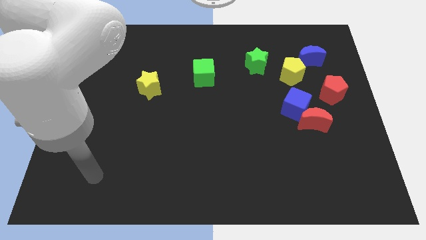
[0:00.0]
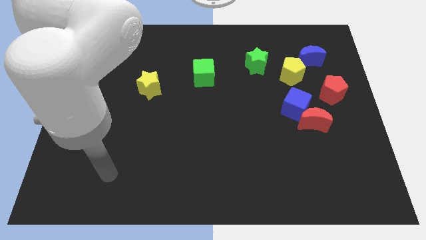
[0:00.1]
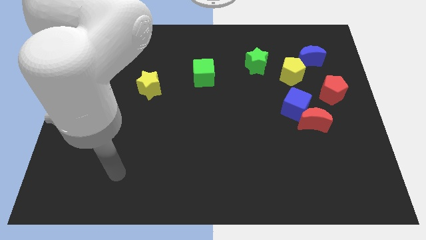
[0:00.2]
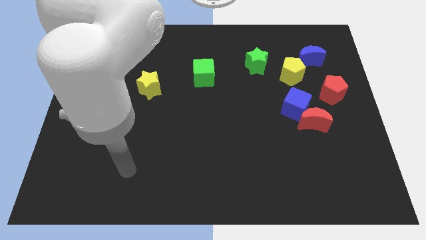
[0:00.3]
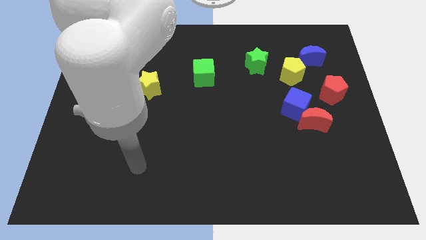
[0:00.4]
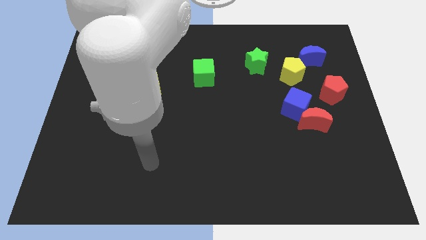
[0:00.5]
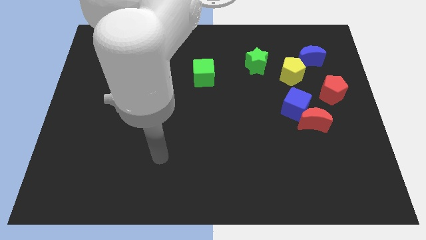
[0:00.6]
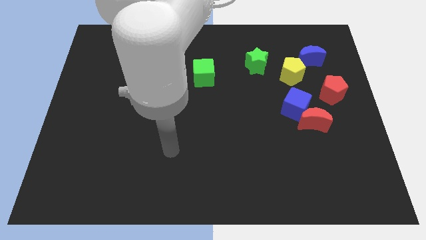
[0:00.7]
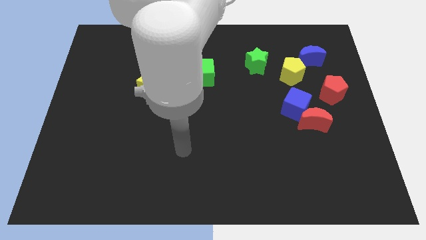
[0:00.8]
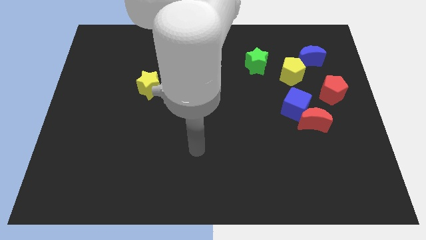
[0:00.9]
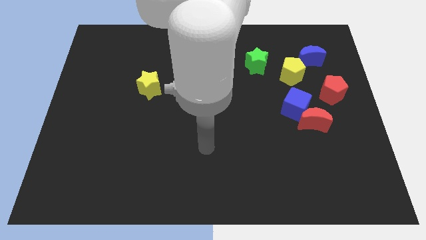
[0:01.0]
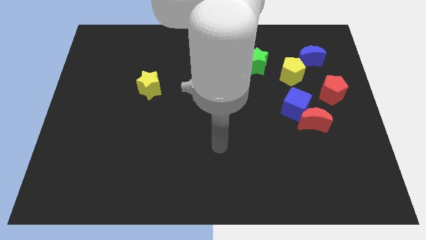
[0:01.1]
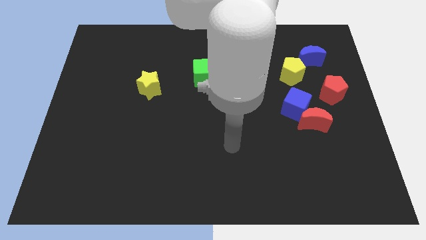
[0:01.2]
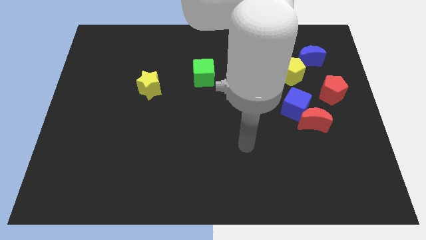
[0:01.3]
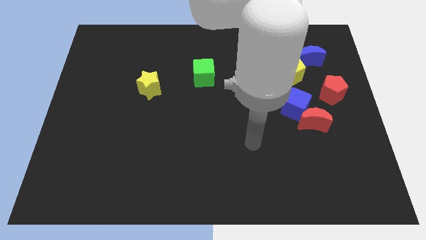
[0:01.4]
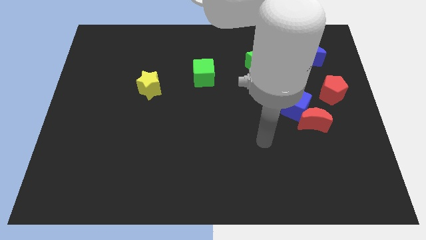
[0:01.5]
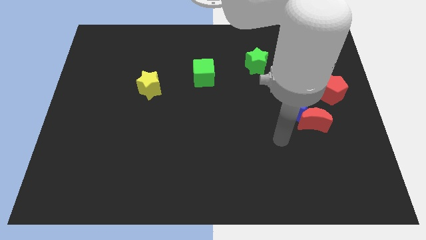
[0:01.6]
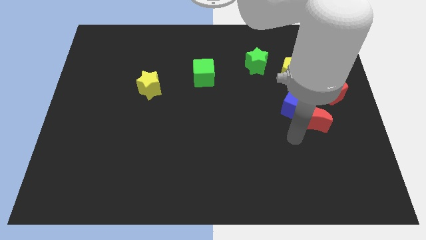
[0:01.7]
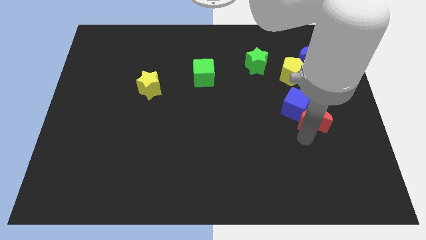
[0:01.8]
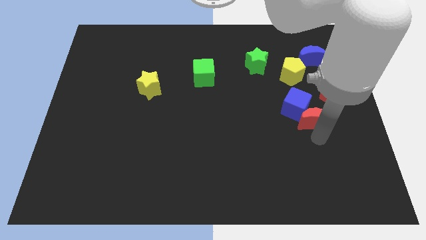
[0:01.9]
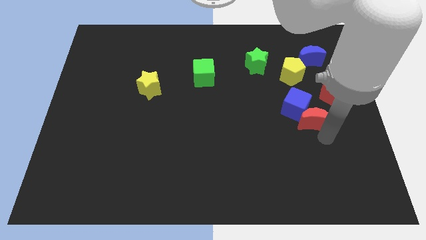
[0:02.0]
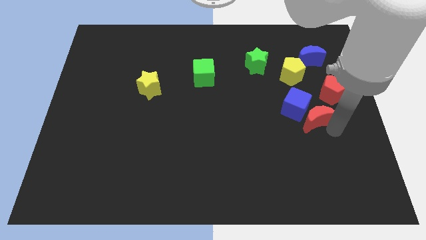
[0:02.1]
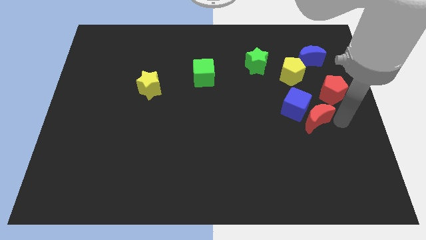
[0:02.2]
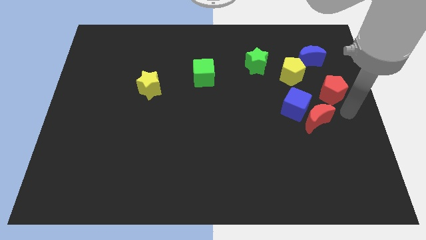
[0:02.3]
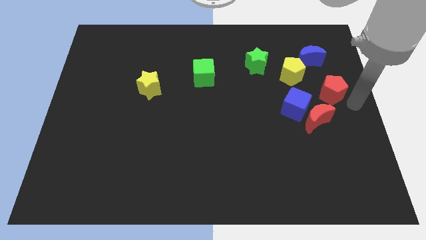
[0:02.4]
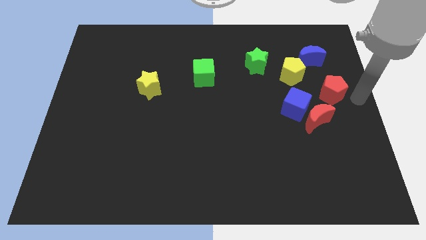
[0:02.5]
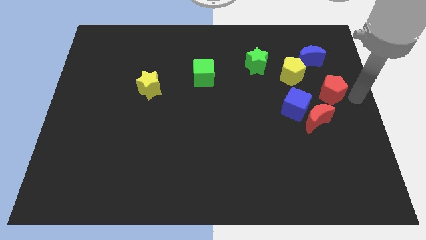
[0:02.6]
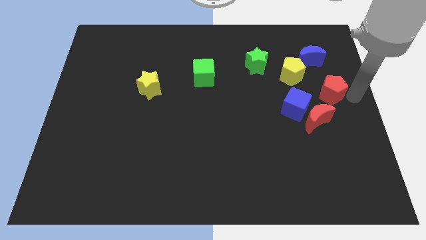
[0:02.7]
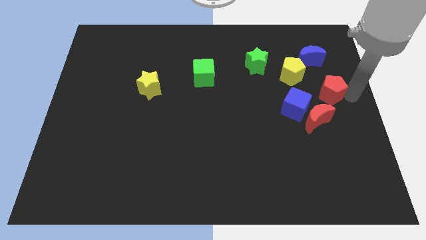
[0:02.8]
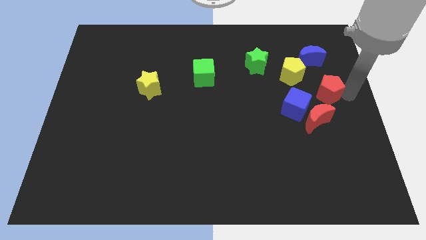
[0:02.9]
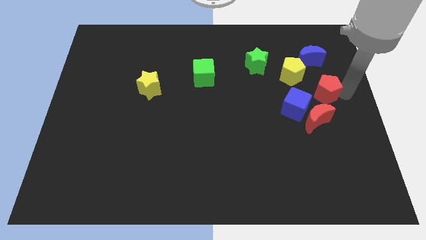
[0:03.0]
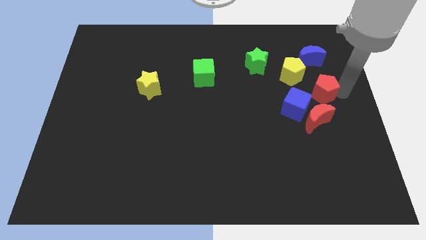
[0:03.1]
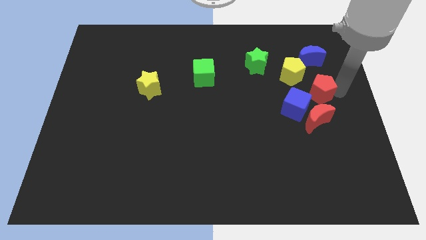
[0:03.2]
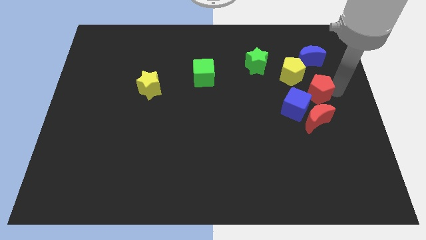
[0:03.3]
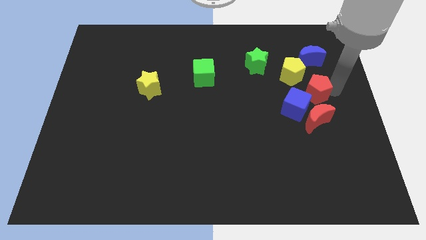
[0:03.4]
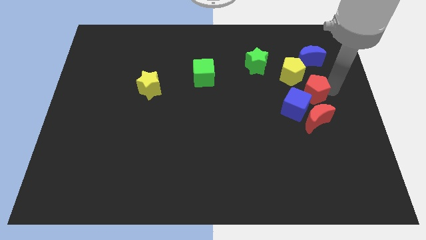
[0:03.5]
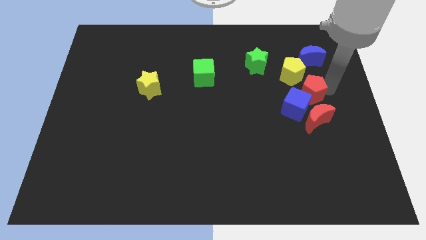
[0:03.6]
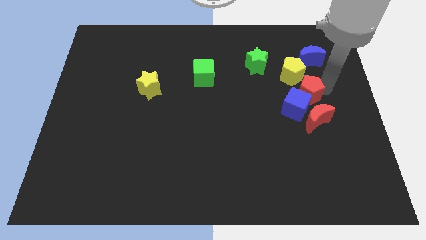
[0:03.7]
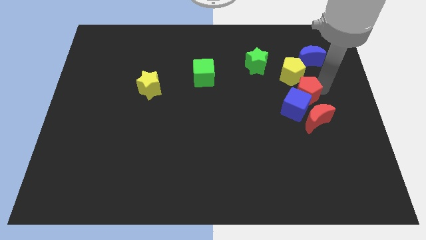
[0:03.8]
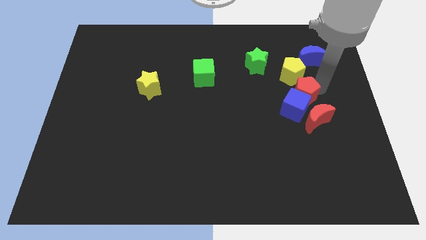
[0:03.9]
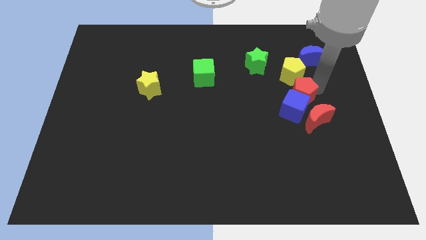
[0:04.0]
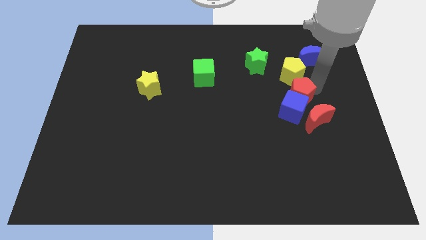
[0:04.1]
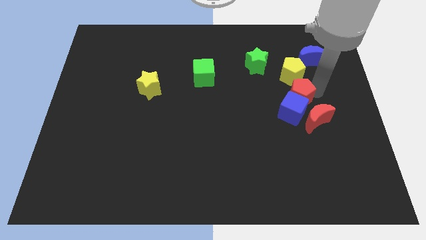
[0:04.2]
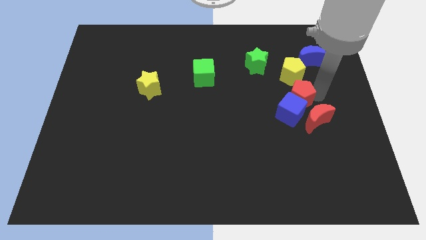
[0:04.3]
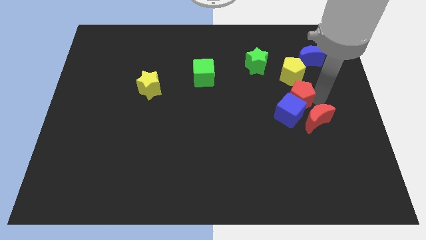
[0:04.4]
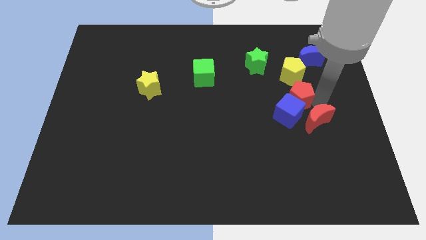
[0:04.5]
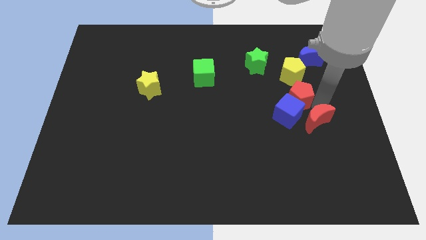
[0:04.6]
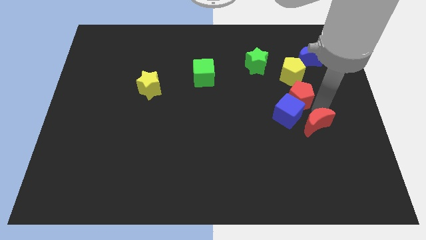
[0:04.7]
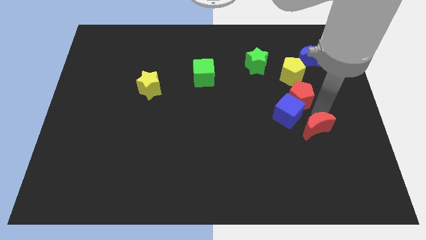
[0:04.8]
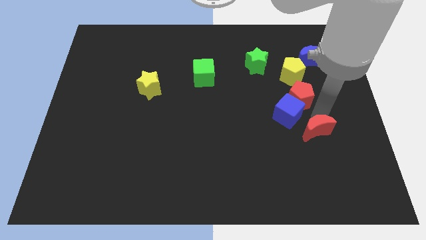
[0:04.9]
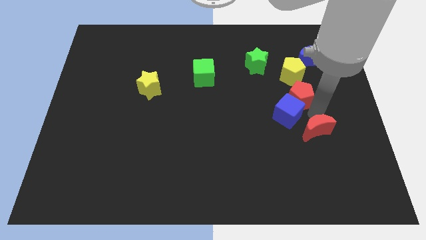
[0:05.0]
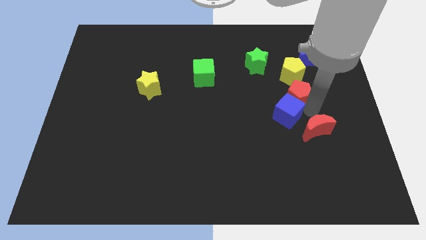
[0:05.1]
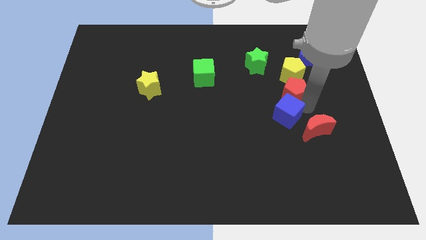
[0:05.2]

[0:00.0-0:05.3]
slide the red pentagon diagonally down and to the left of the yellow pentagon

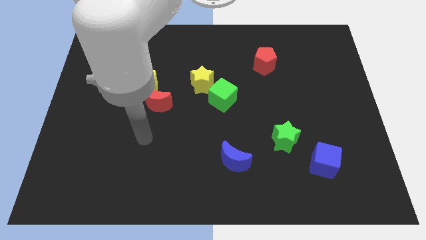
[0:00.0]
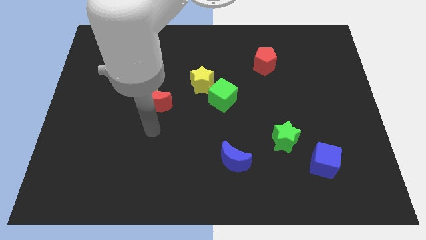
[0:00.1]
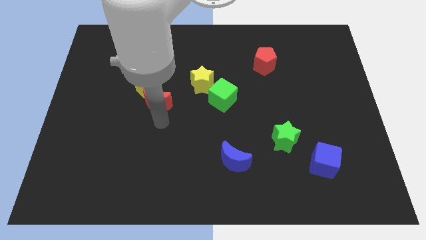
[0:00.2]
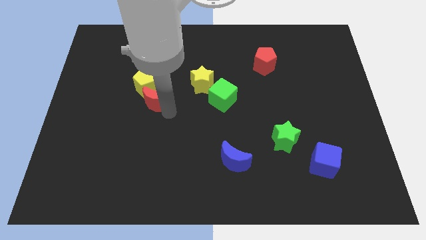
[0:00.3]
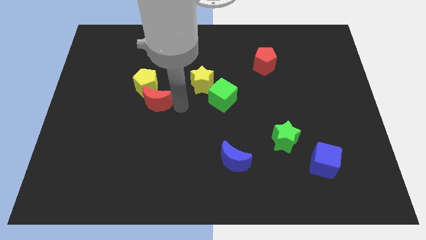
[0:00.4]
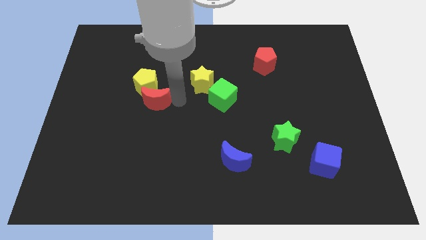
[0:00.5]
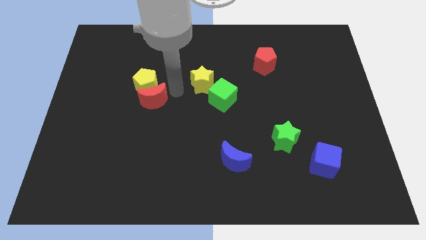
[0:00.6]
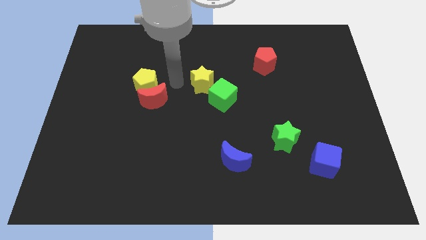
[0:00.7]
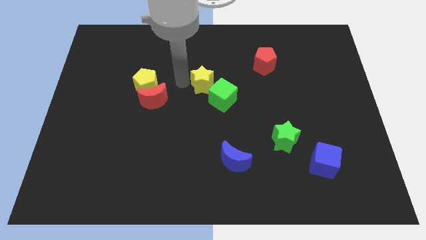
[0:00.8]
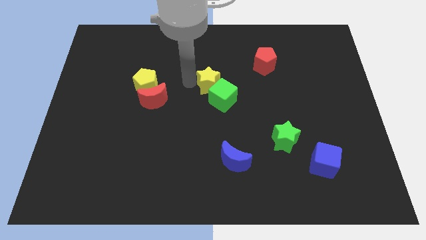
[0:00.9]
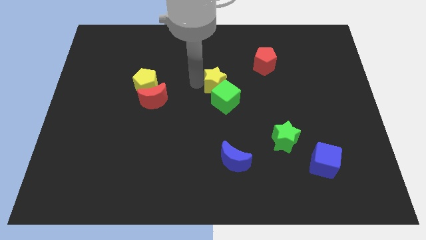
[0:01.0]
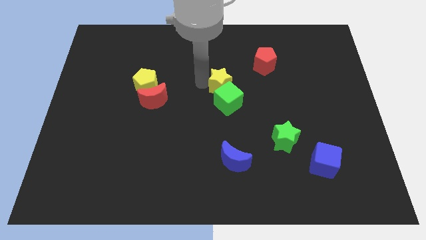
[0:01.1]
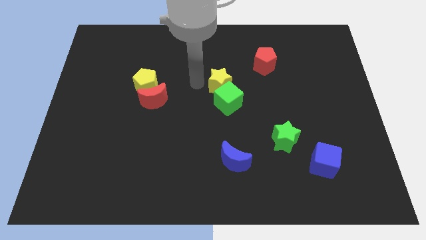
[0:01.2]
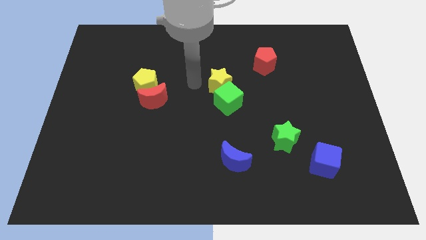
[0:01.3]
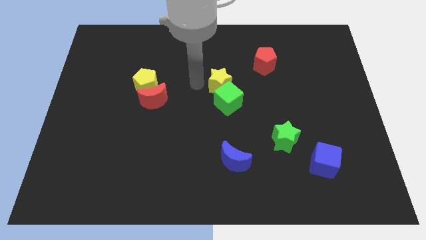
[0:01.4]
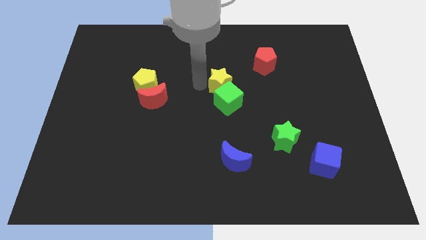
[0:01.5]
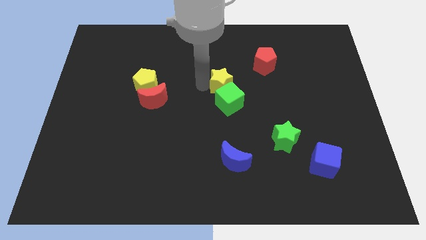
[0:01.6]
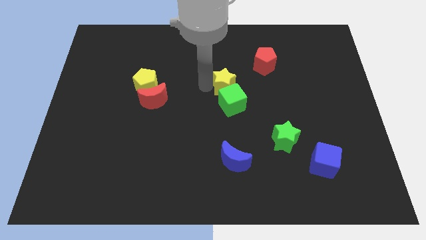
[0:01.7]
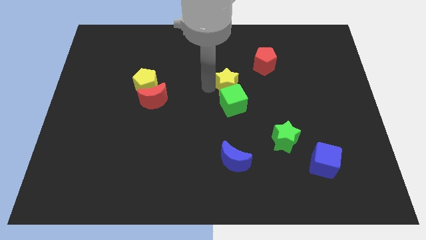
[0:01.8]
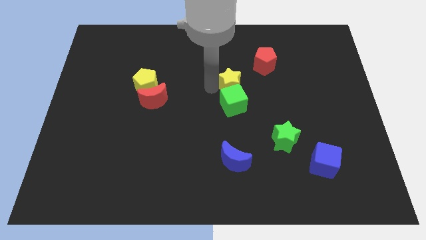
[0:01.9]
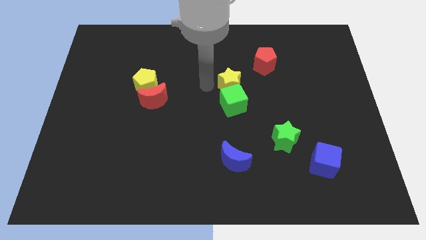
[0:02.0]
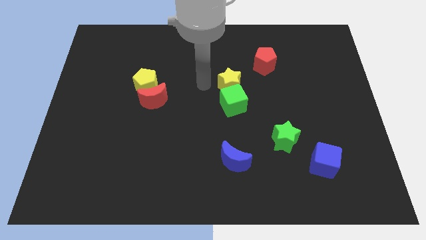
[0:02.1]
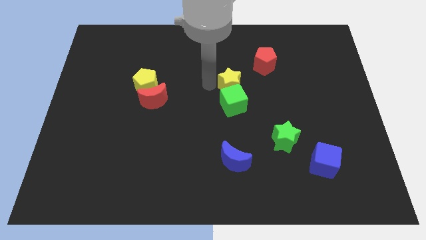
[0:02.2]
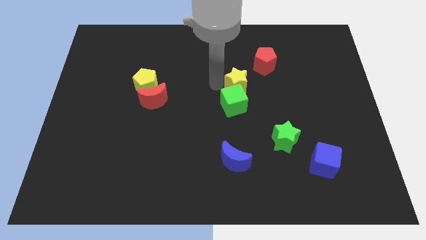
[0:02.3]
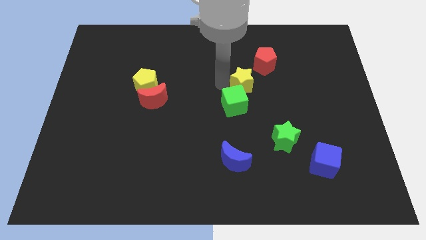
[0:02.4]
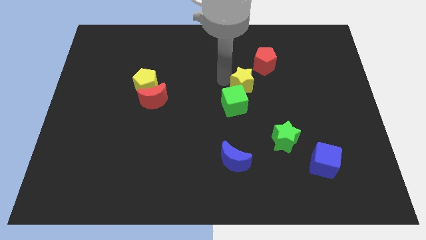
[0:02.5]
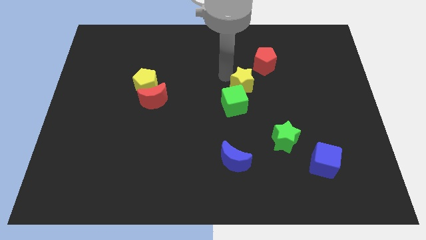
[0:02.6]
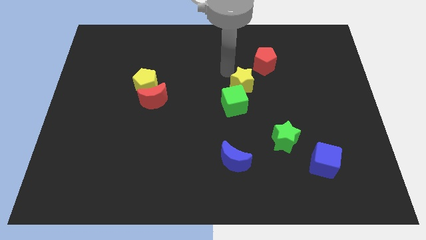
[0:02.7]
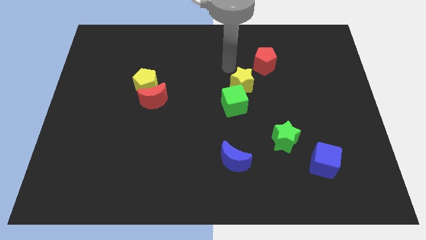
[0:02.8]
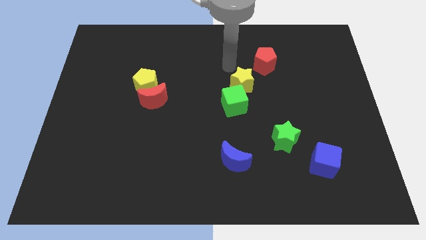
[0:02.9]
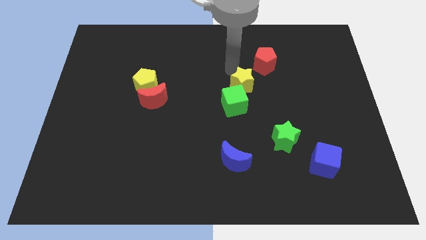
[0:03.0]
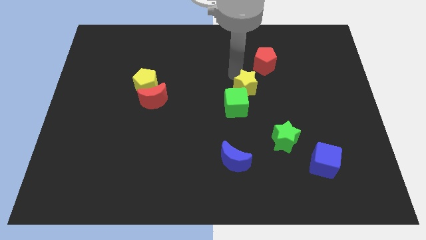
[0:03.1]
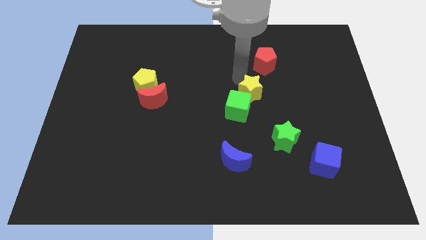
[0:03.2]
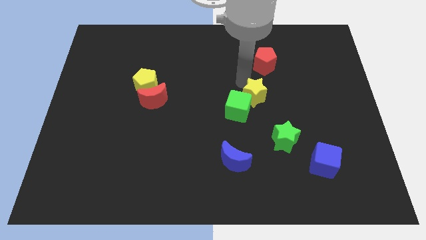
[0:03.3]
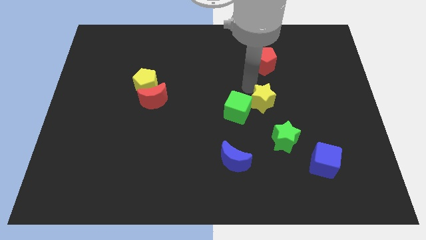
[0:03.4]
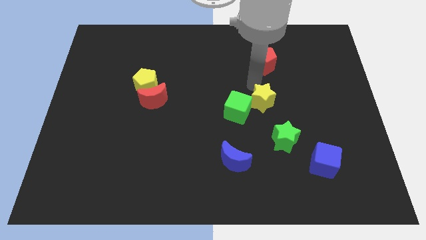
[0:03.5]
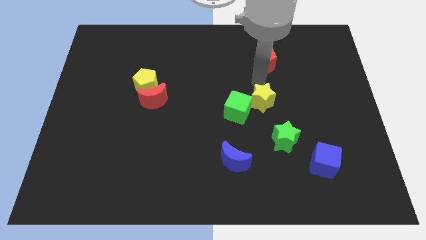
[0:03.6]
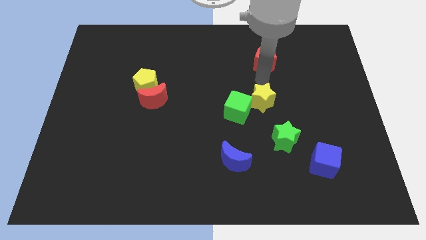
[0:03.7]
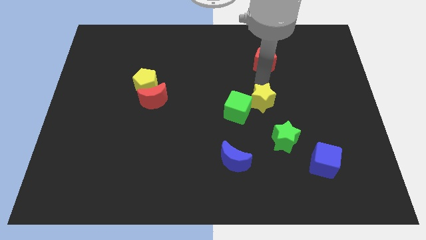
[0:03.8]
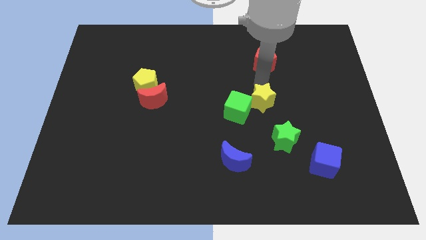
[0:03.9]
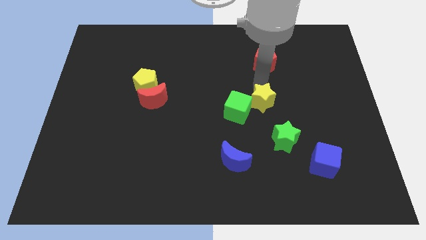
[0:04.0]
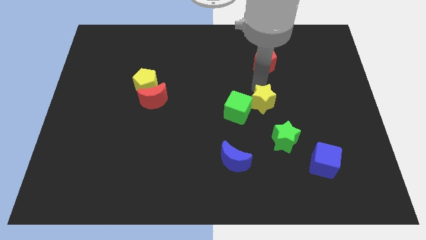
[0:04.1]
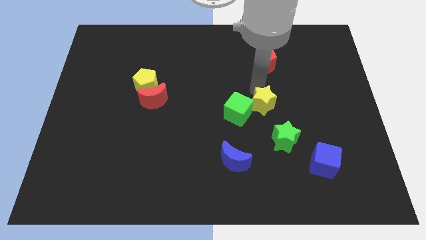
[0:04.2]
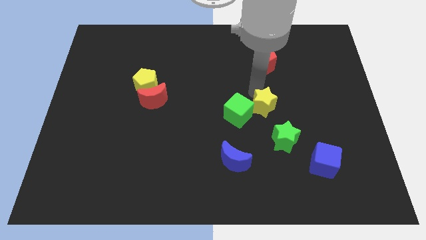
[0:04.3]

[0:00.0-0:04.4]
push the yellow star diagonally up and to the left of the green star
